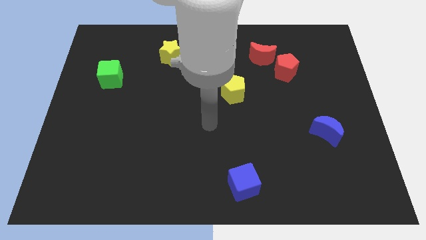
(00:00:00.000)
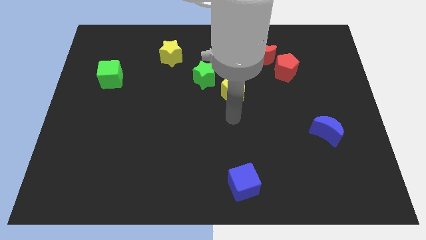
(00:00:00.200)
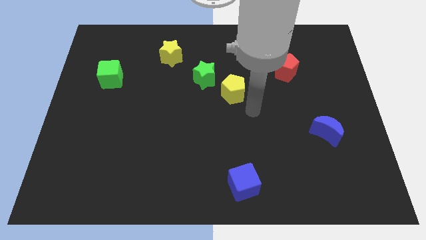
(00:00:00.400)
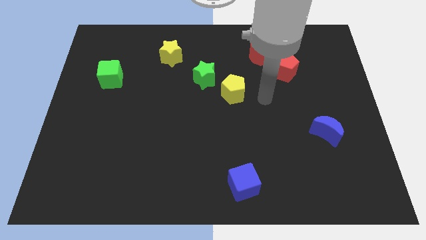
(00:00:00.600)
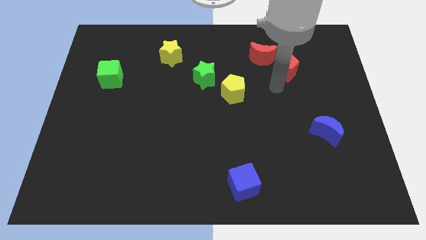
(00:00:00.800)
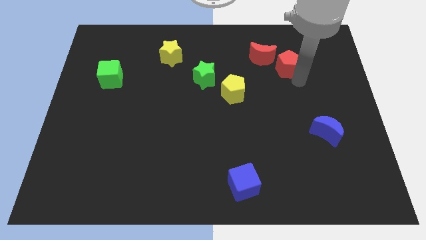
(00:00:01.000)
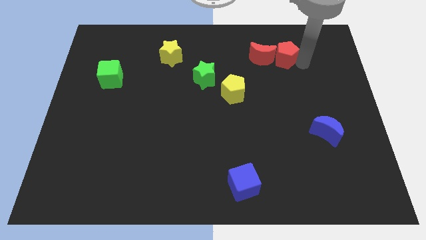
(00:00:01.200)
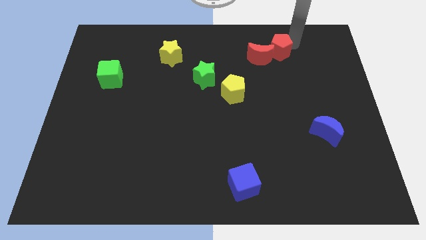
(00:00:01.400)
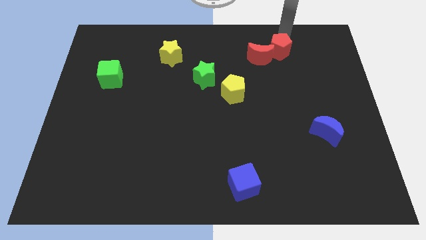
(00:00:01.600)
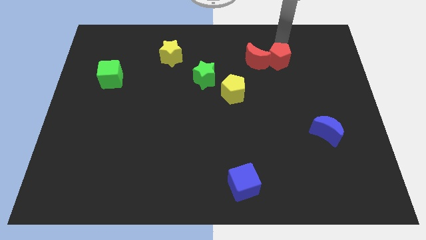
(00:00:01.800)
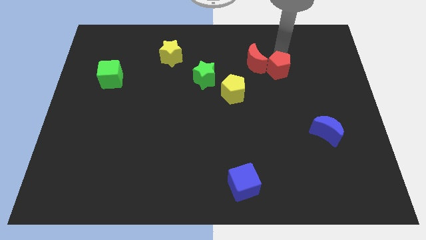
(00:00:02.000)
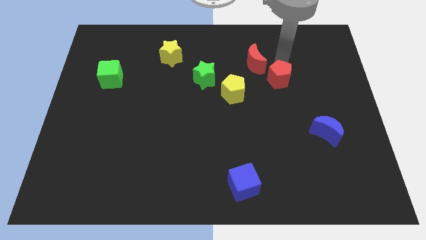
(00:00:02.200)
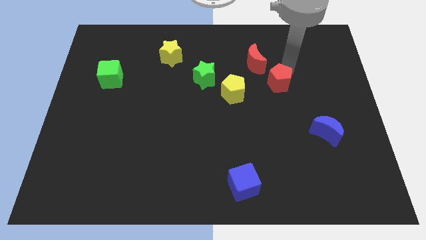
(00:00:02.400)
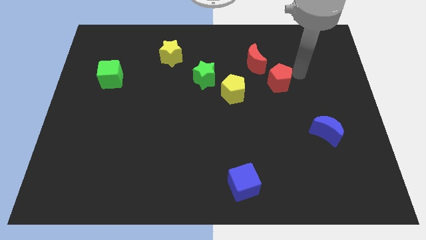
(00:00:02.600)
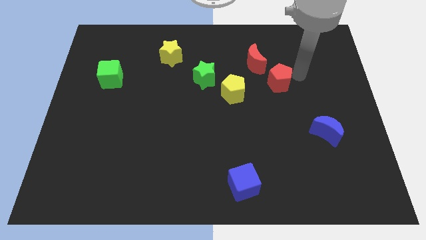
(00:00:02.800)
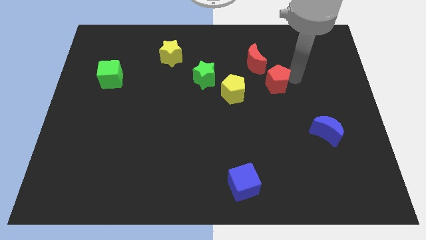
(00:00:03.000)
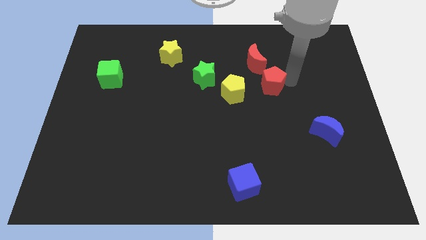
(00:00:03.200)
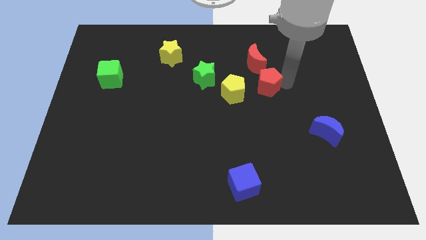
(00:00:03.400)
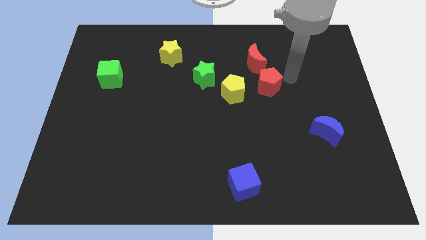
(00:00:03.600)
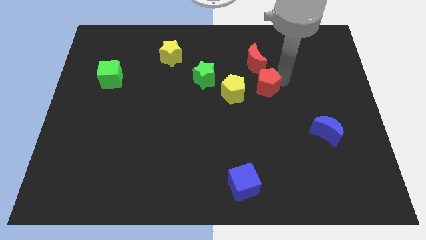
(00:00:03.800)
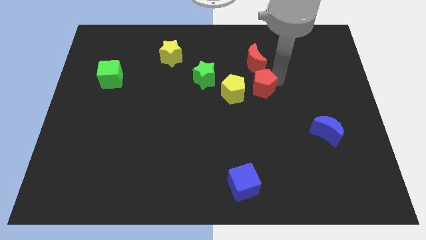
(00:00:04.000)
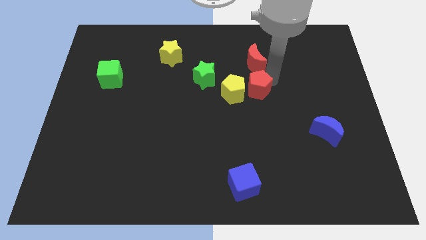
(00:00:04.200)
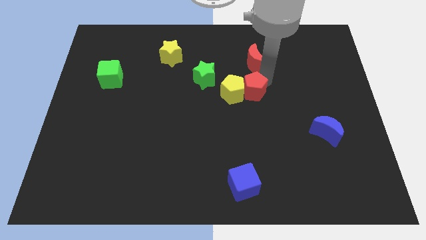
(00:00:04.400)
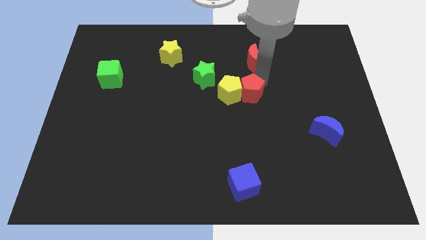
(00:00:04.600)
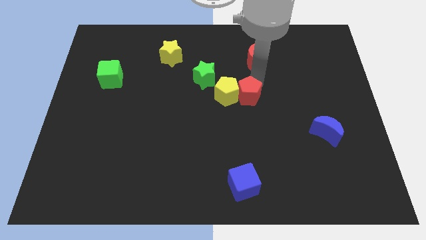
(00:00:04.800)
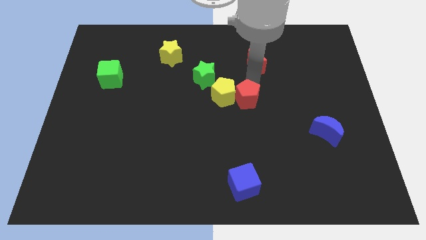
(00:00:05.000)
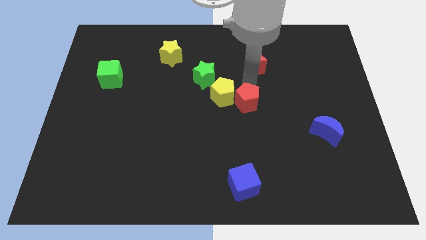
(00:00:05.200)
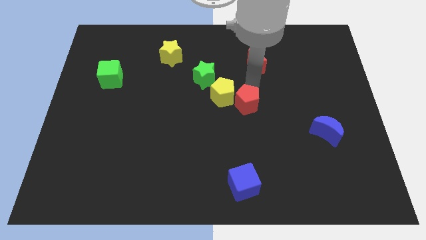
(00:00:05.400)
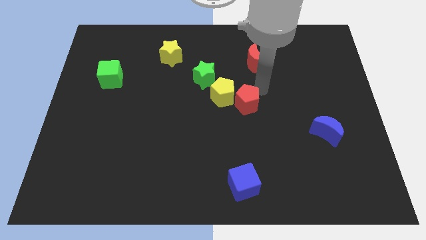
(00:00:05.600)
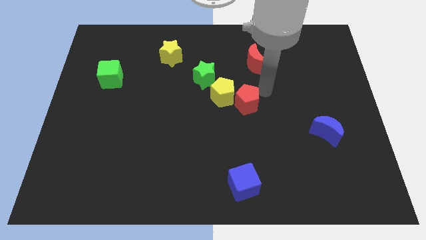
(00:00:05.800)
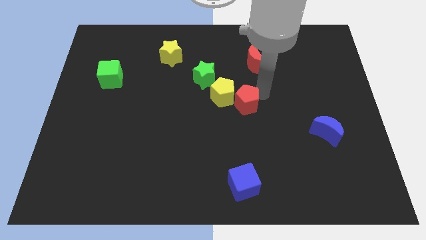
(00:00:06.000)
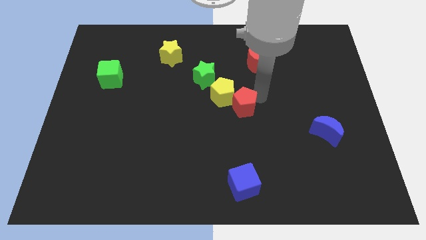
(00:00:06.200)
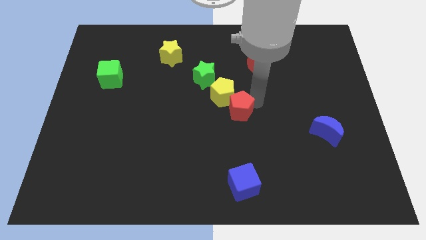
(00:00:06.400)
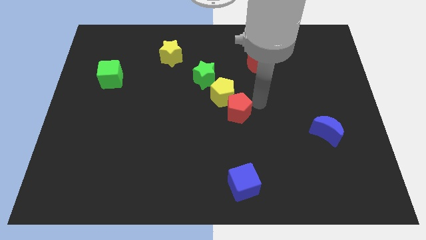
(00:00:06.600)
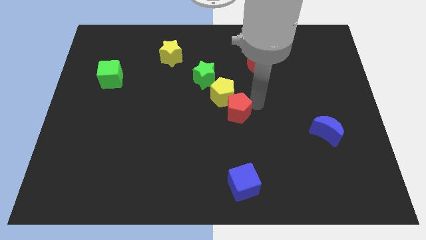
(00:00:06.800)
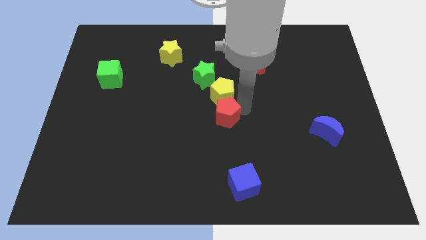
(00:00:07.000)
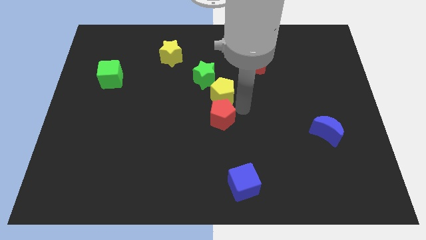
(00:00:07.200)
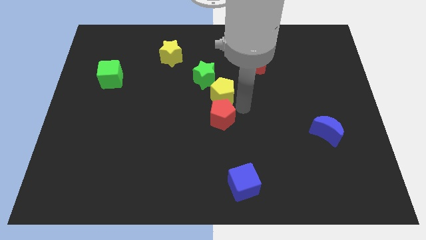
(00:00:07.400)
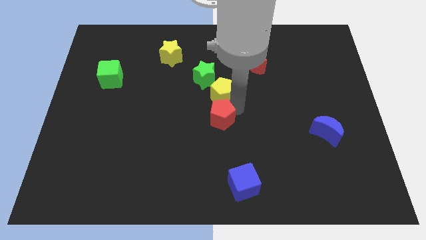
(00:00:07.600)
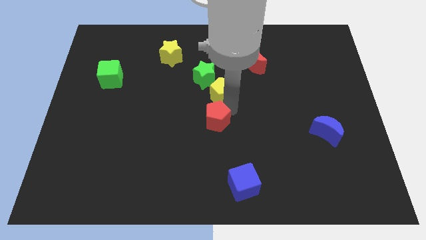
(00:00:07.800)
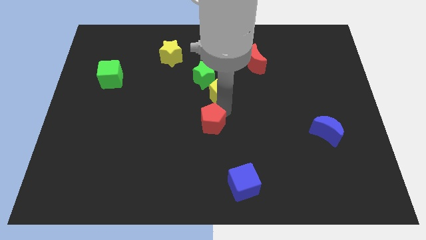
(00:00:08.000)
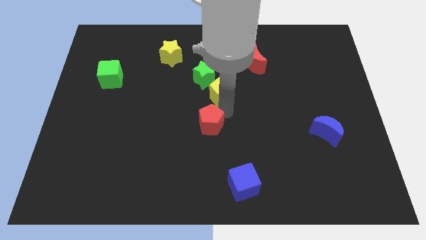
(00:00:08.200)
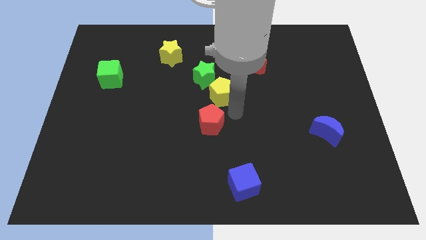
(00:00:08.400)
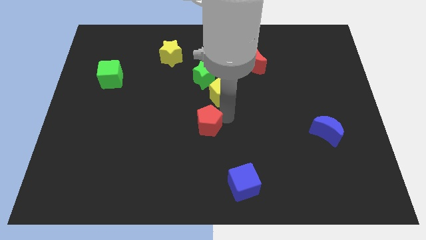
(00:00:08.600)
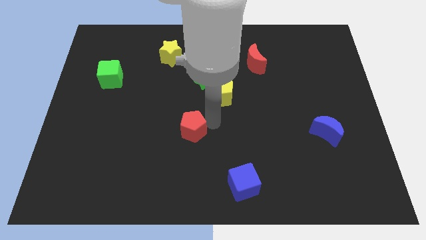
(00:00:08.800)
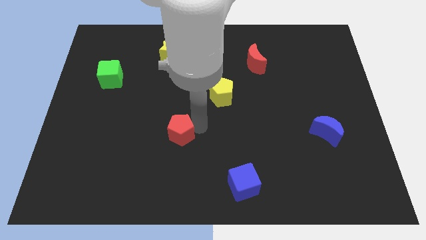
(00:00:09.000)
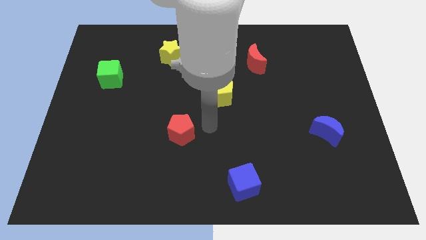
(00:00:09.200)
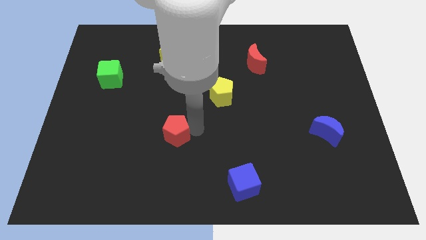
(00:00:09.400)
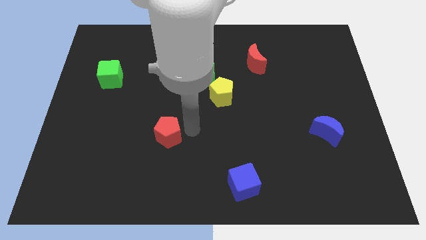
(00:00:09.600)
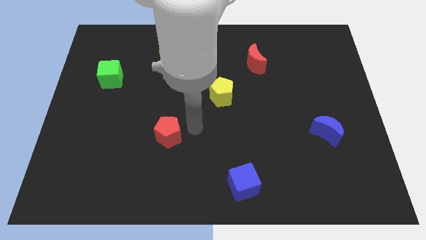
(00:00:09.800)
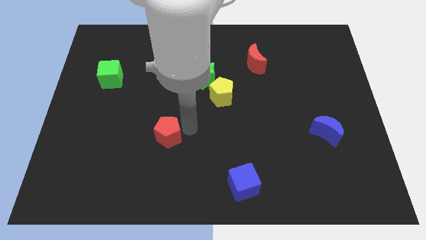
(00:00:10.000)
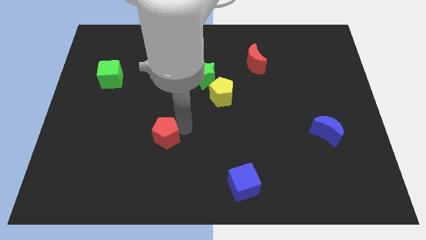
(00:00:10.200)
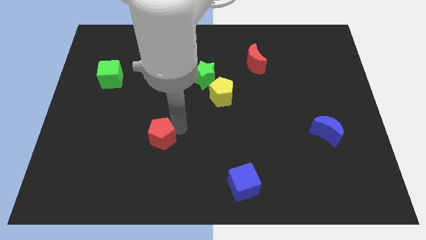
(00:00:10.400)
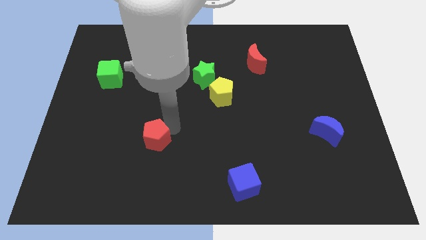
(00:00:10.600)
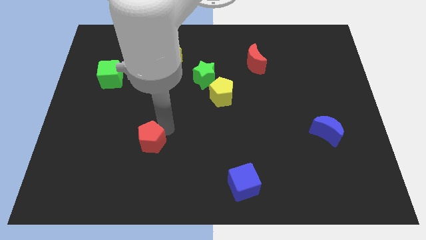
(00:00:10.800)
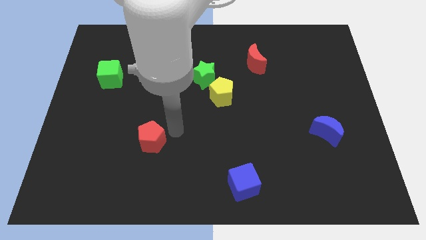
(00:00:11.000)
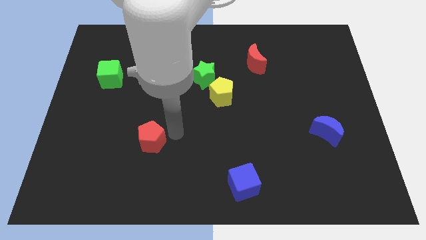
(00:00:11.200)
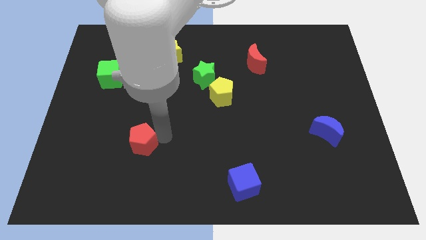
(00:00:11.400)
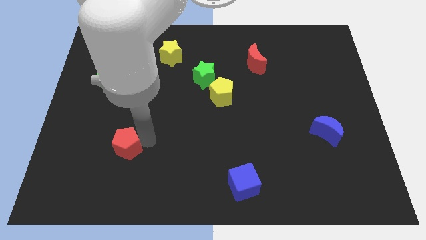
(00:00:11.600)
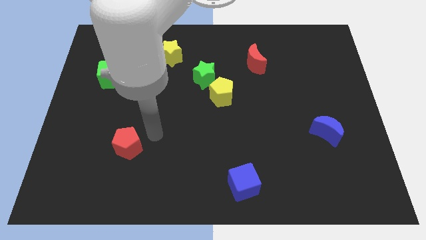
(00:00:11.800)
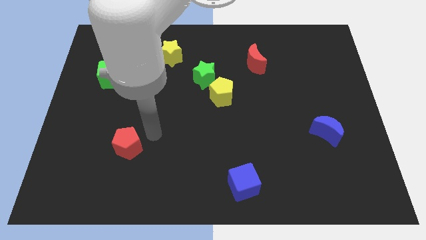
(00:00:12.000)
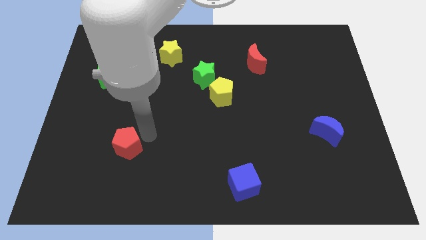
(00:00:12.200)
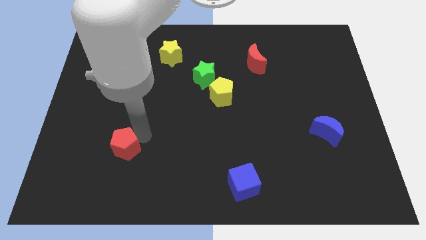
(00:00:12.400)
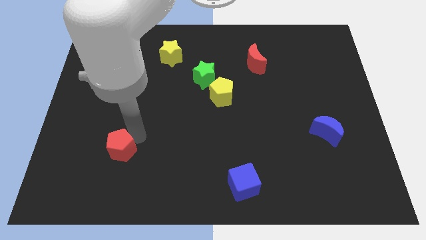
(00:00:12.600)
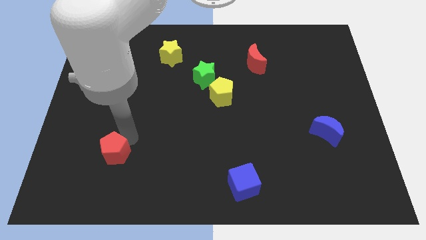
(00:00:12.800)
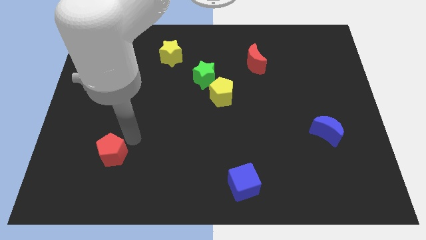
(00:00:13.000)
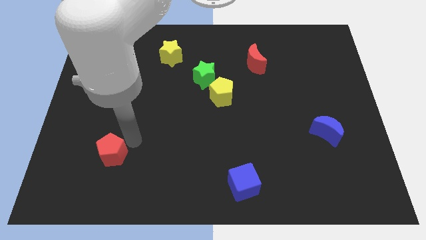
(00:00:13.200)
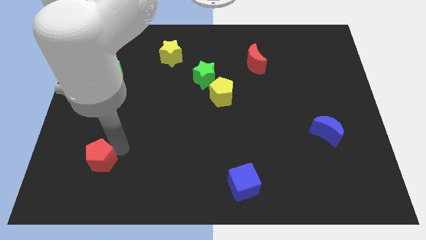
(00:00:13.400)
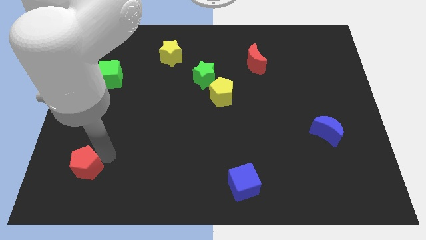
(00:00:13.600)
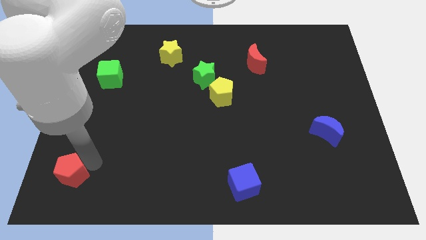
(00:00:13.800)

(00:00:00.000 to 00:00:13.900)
push the red pentagon to the lower left corner
